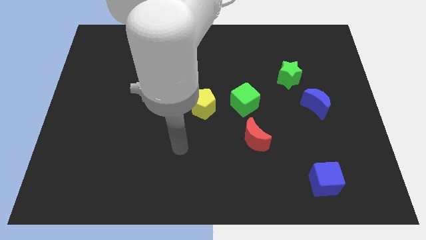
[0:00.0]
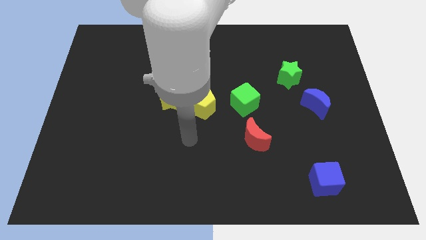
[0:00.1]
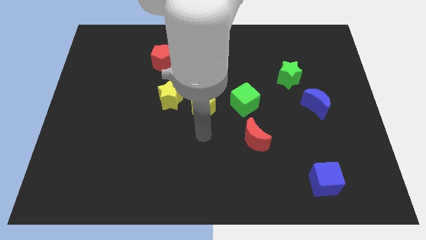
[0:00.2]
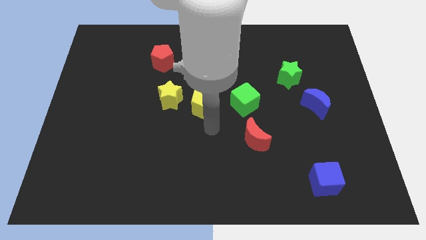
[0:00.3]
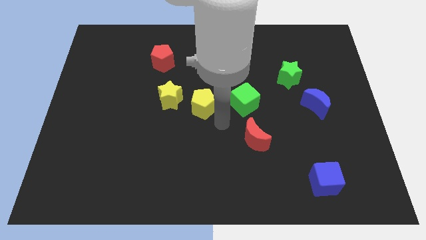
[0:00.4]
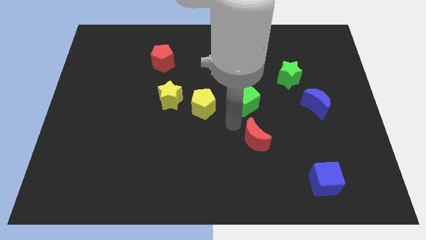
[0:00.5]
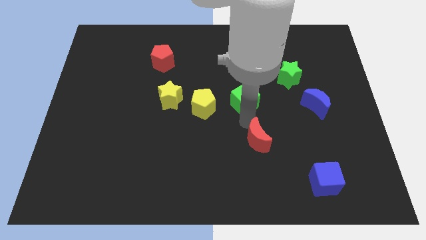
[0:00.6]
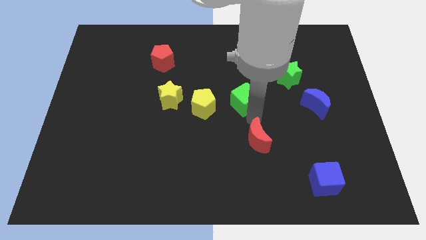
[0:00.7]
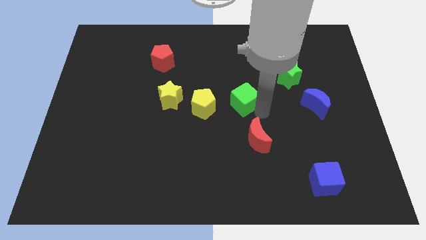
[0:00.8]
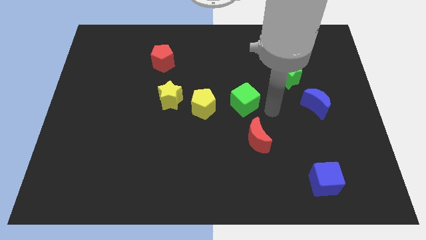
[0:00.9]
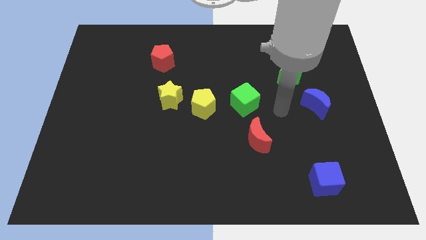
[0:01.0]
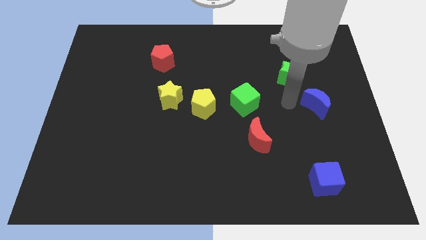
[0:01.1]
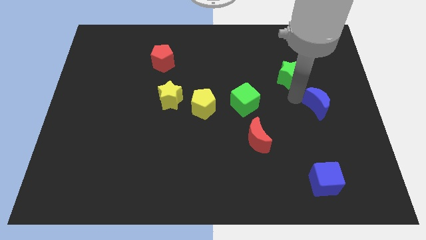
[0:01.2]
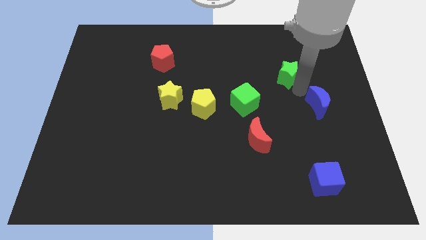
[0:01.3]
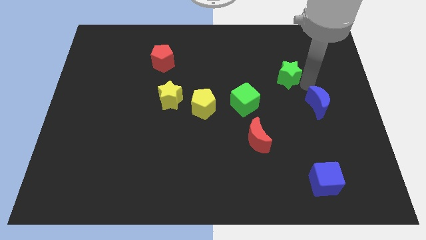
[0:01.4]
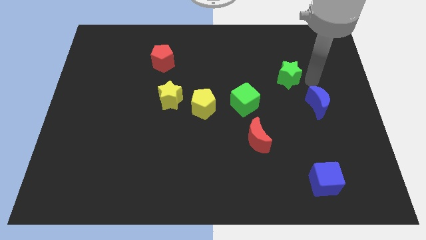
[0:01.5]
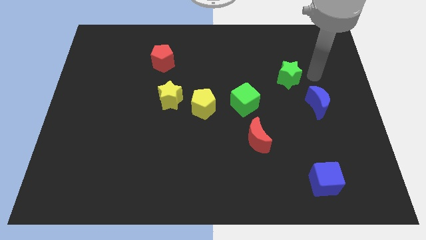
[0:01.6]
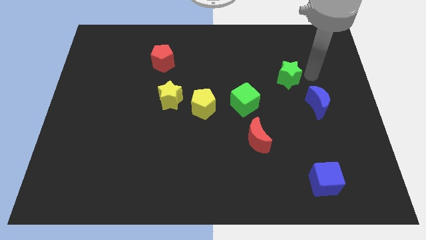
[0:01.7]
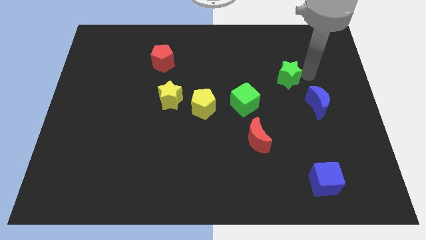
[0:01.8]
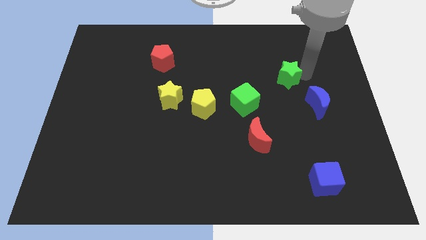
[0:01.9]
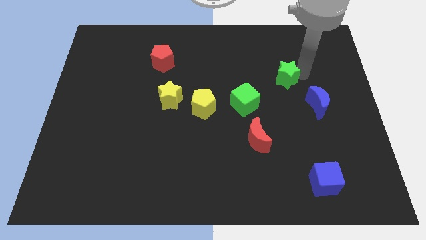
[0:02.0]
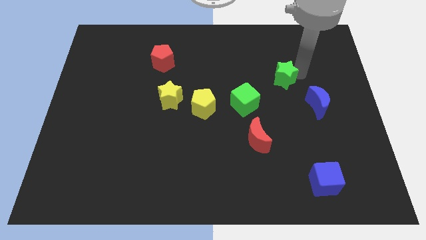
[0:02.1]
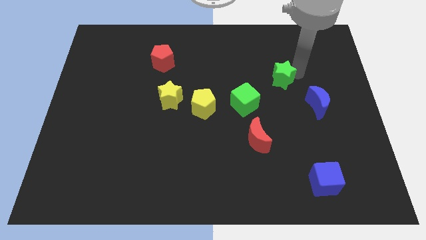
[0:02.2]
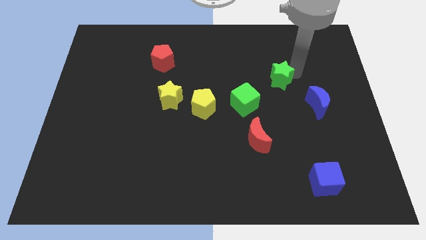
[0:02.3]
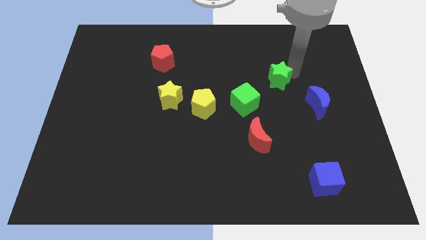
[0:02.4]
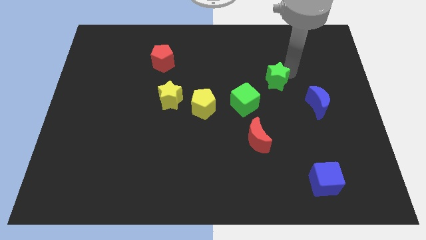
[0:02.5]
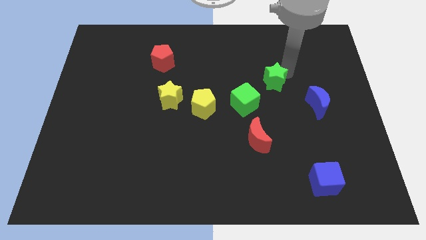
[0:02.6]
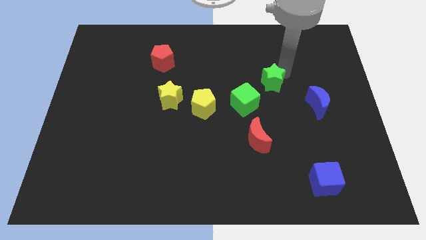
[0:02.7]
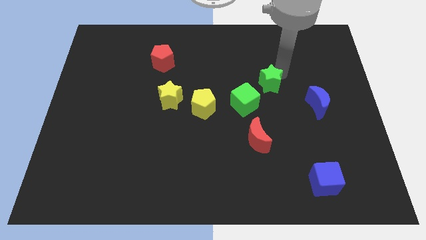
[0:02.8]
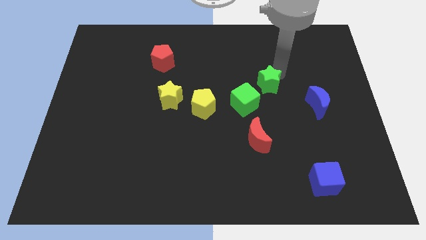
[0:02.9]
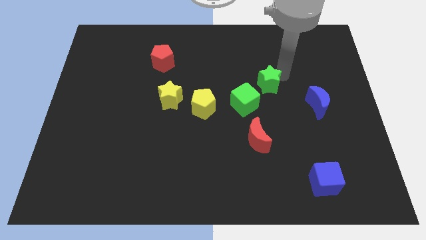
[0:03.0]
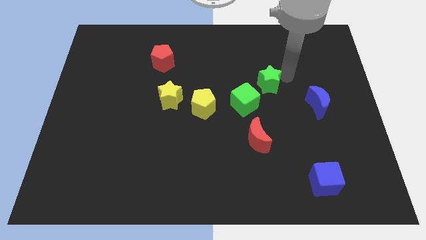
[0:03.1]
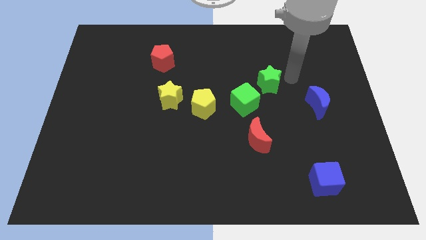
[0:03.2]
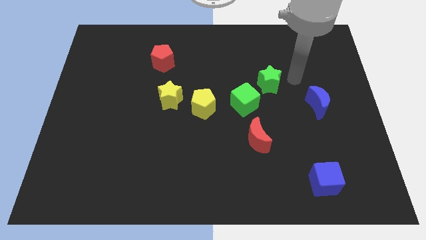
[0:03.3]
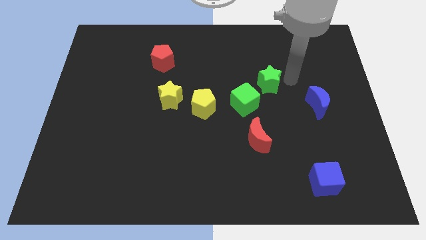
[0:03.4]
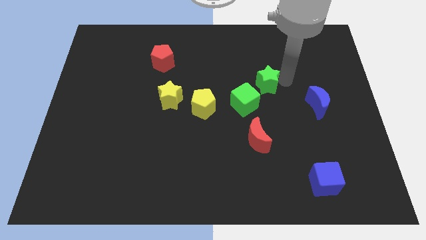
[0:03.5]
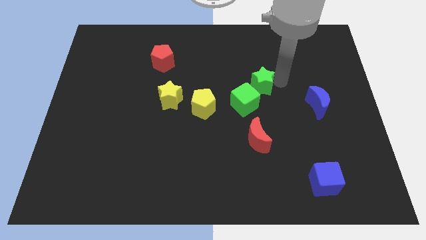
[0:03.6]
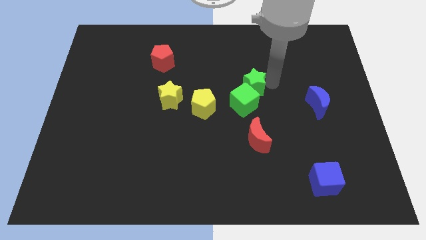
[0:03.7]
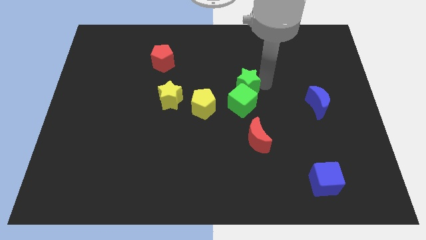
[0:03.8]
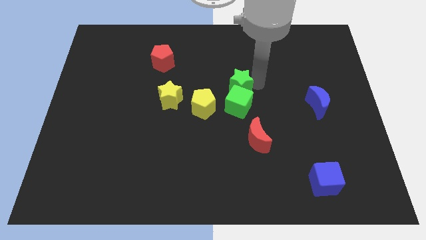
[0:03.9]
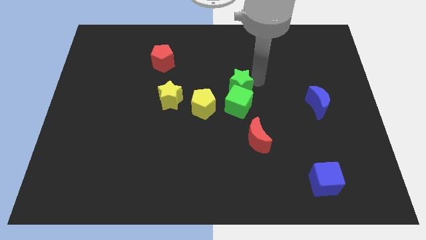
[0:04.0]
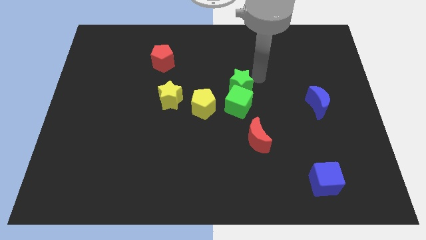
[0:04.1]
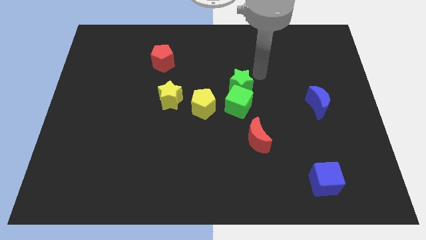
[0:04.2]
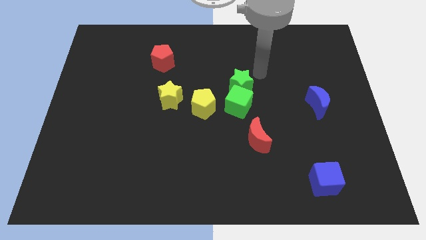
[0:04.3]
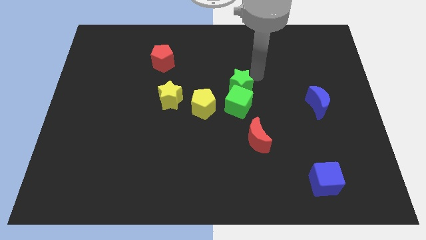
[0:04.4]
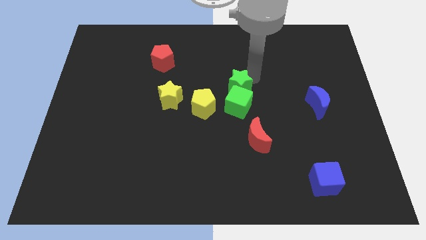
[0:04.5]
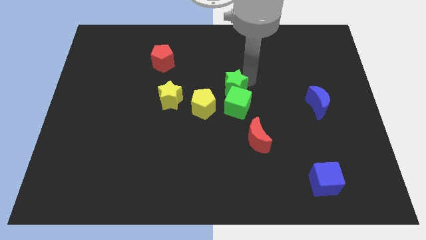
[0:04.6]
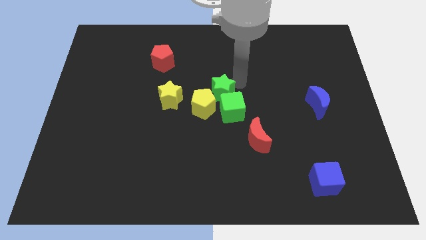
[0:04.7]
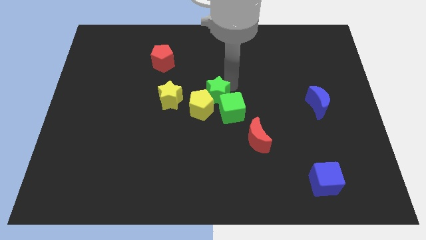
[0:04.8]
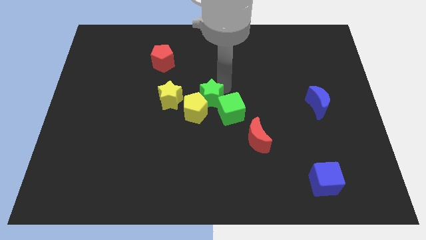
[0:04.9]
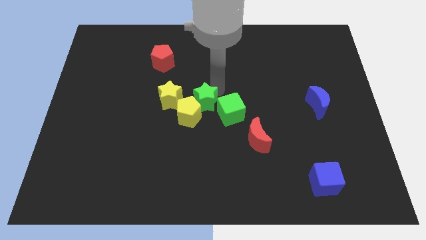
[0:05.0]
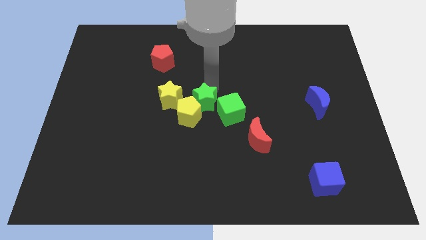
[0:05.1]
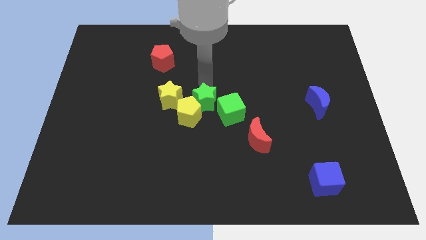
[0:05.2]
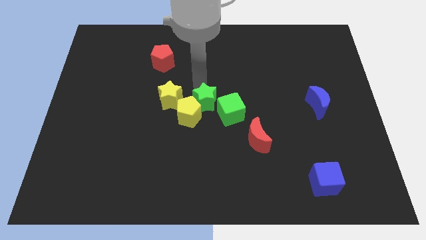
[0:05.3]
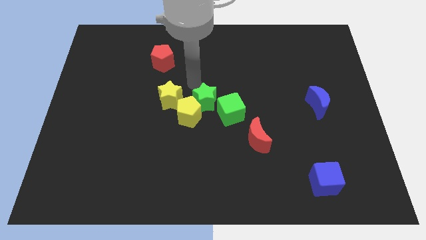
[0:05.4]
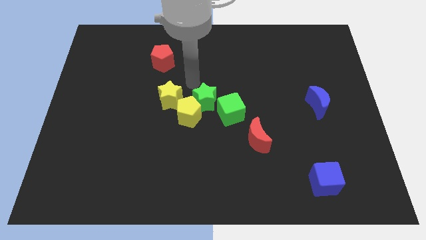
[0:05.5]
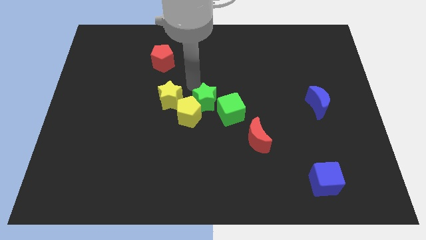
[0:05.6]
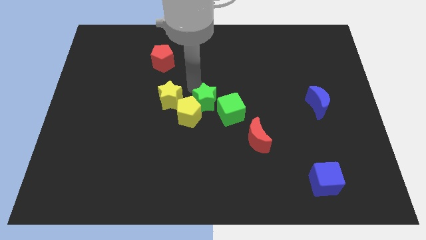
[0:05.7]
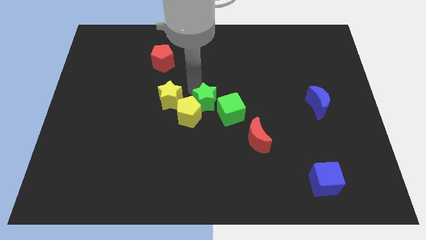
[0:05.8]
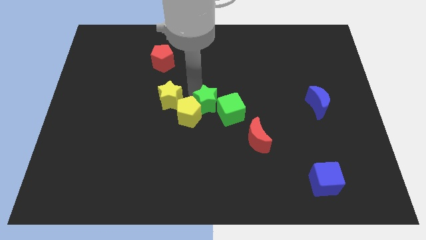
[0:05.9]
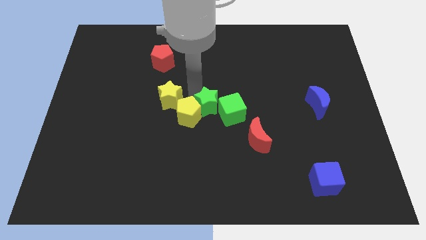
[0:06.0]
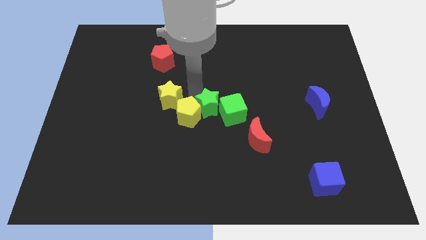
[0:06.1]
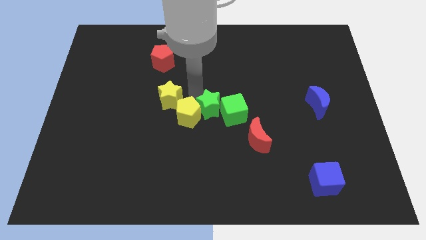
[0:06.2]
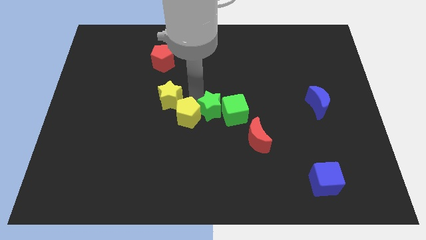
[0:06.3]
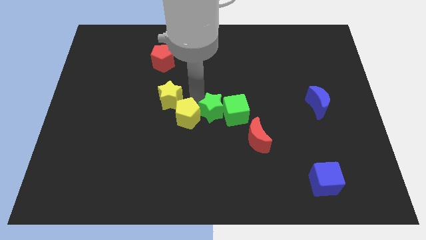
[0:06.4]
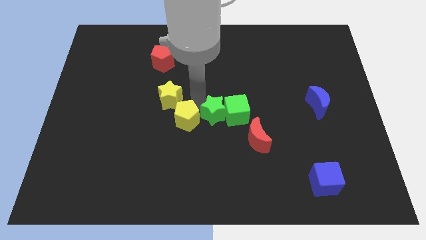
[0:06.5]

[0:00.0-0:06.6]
slide the green star downwards and then left

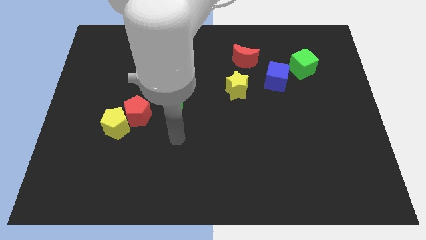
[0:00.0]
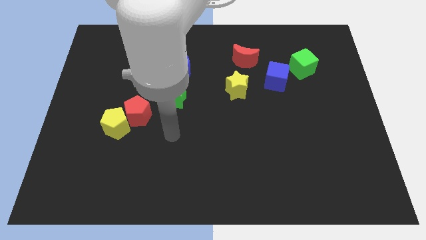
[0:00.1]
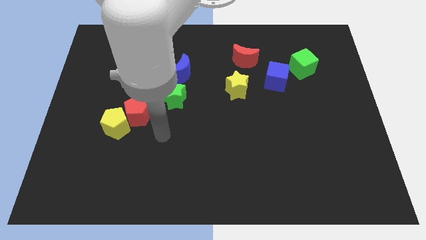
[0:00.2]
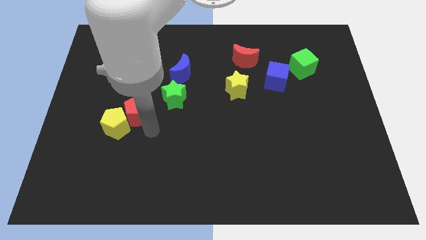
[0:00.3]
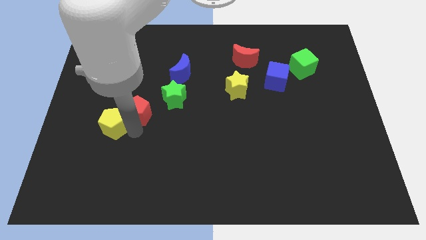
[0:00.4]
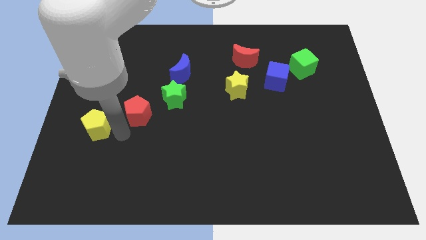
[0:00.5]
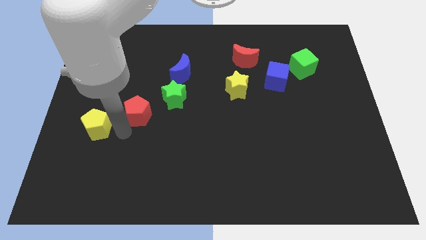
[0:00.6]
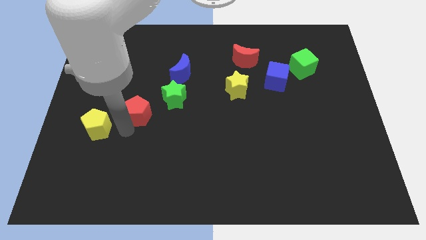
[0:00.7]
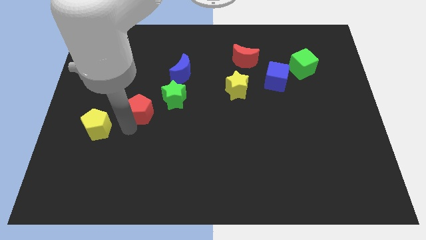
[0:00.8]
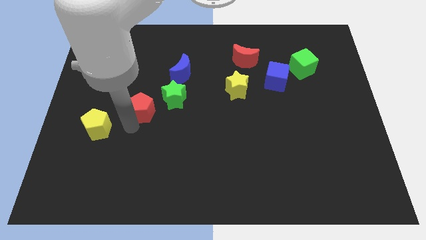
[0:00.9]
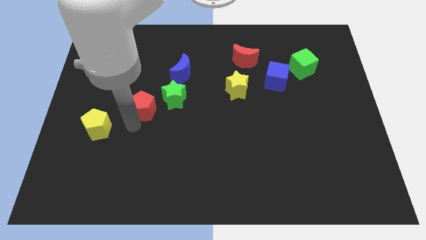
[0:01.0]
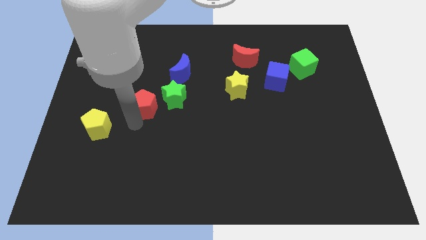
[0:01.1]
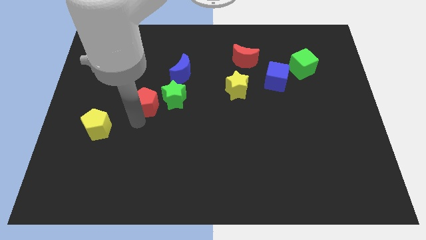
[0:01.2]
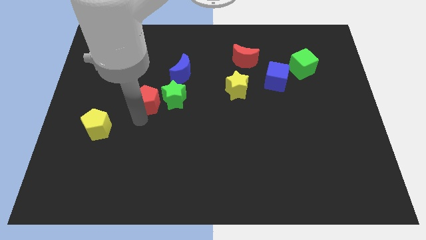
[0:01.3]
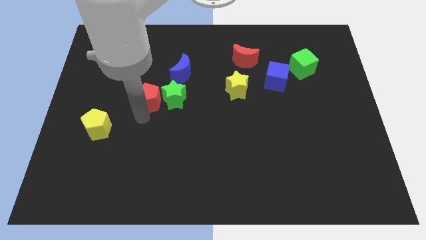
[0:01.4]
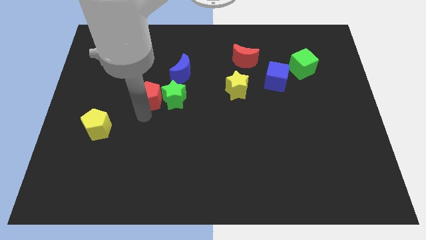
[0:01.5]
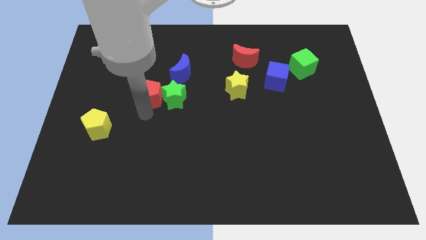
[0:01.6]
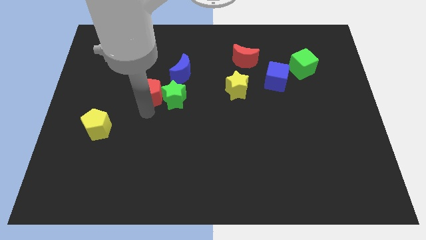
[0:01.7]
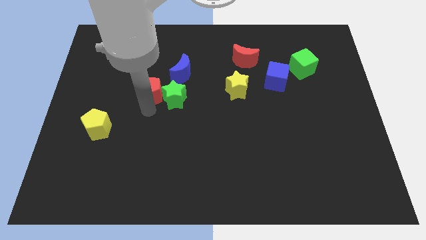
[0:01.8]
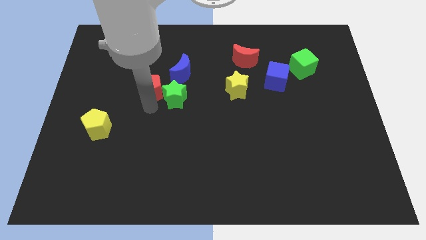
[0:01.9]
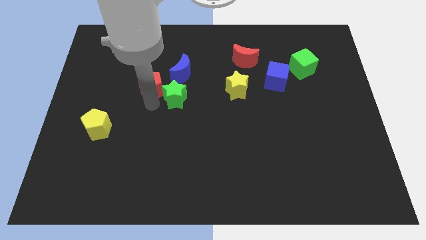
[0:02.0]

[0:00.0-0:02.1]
push the red pentagon up and then right a little
